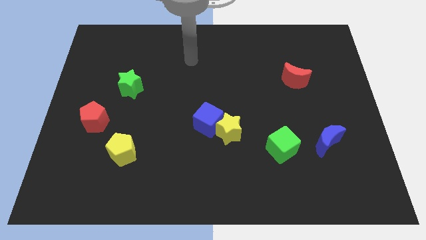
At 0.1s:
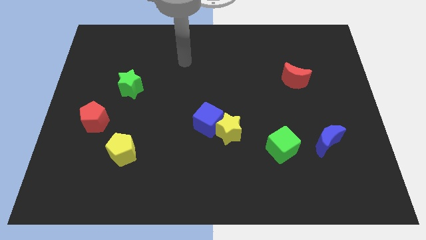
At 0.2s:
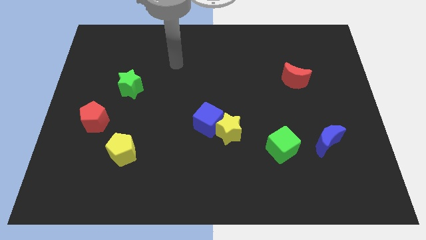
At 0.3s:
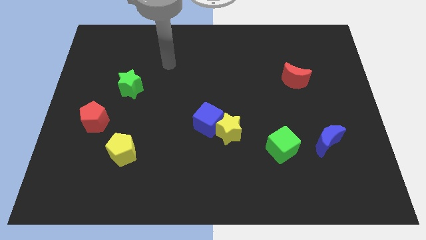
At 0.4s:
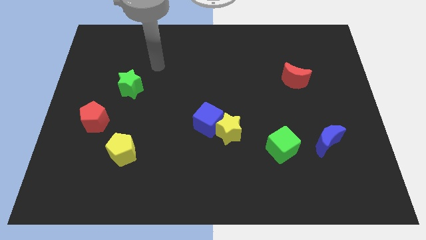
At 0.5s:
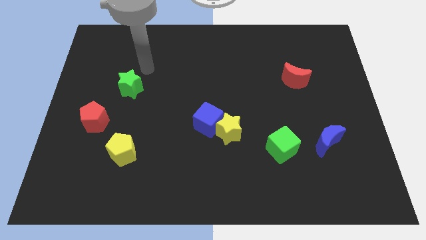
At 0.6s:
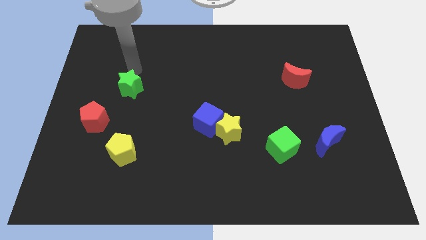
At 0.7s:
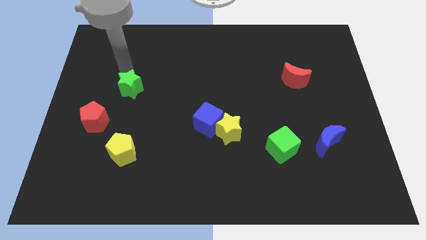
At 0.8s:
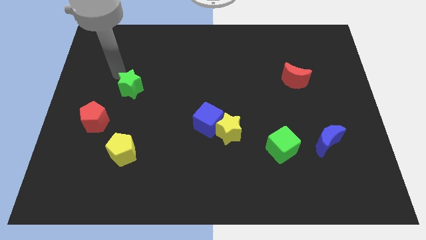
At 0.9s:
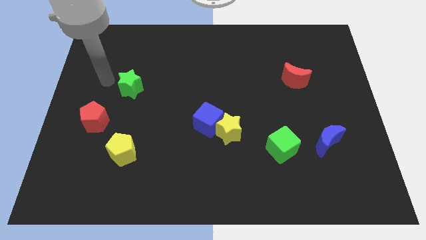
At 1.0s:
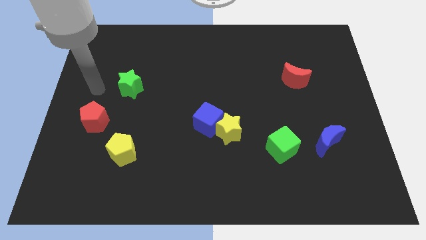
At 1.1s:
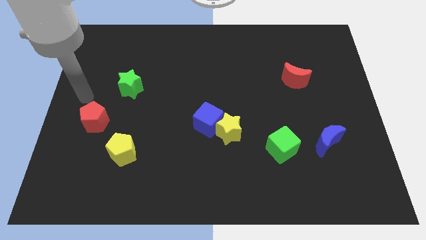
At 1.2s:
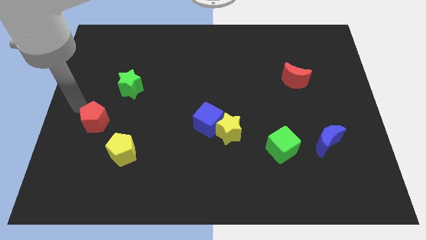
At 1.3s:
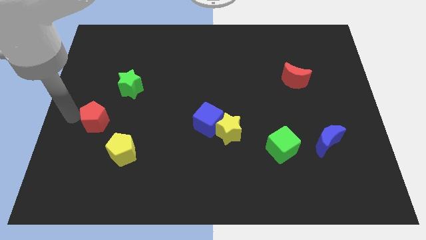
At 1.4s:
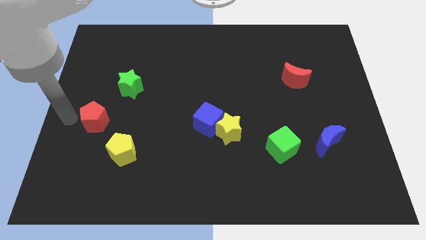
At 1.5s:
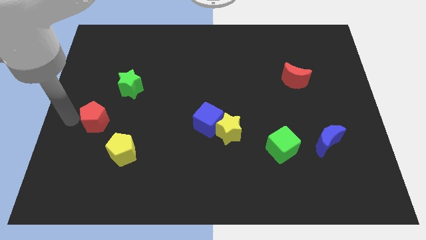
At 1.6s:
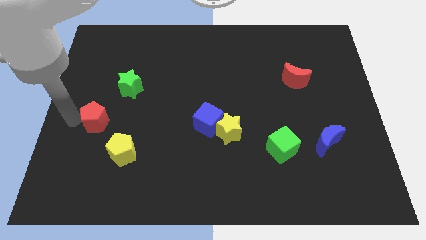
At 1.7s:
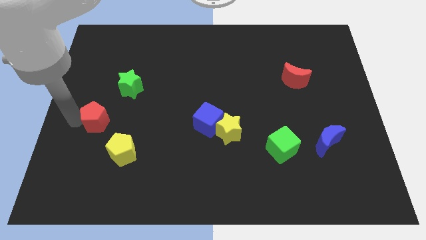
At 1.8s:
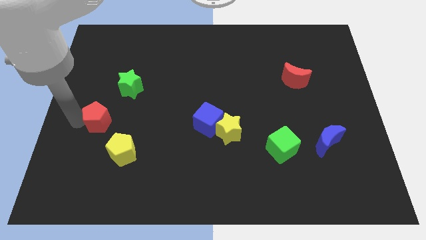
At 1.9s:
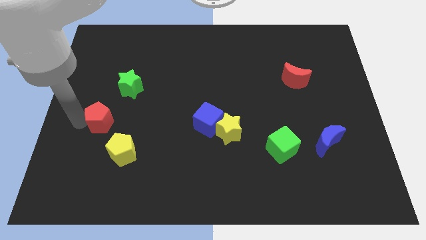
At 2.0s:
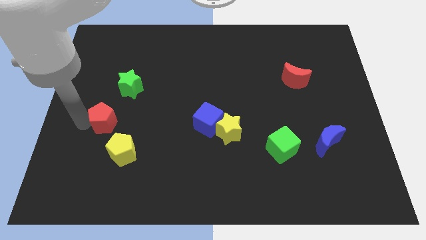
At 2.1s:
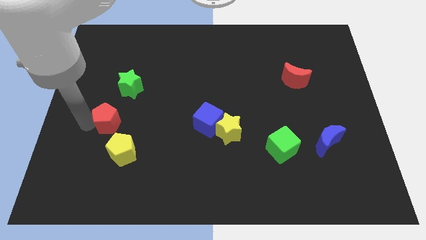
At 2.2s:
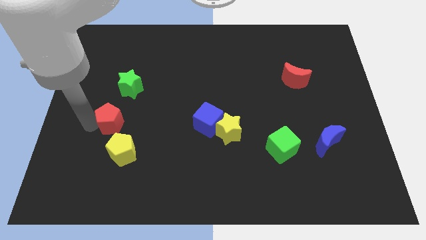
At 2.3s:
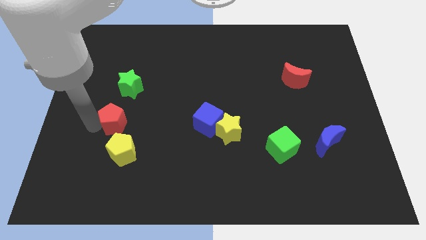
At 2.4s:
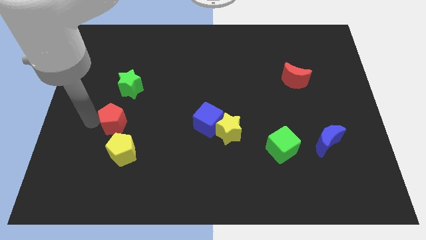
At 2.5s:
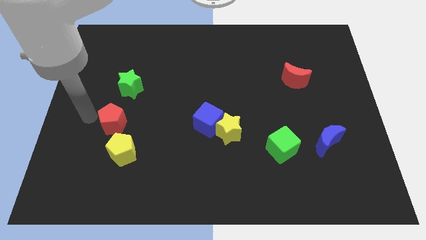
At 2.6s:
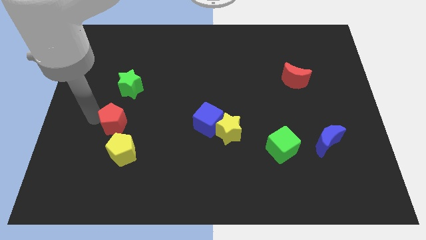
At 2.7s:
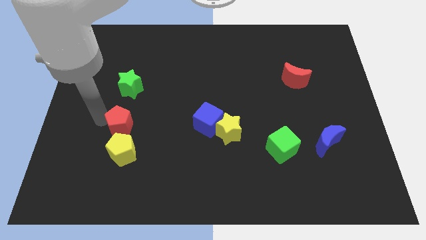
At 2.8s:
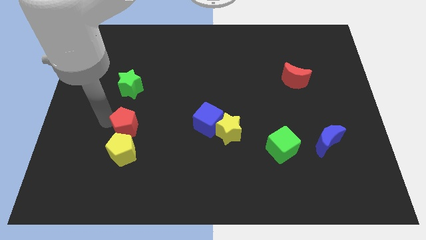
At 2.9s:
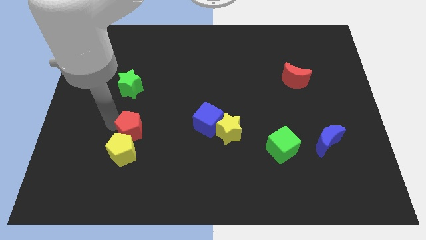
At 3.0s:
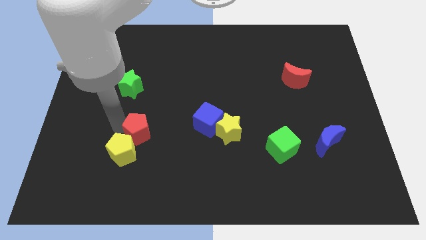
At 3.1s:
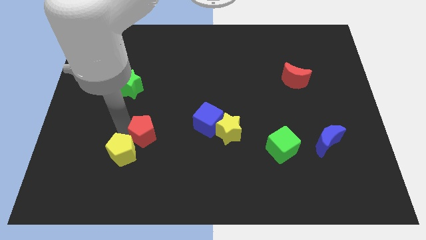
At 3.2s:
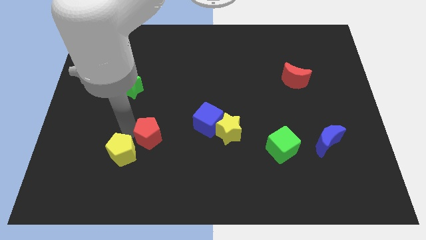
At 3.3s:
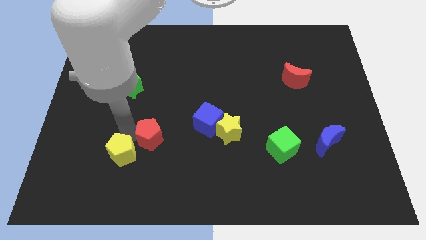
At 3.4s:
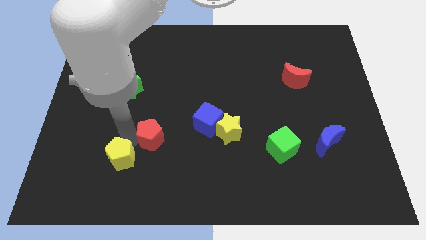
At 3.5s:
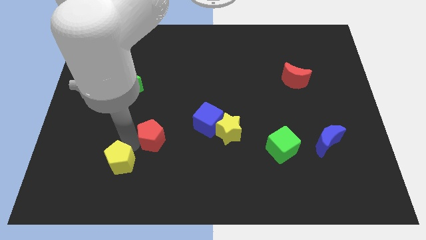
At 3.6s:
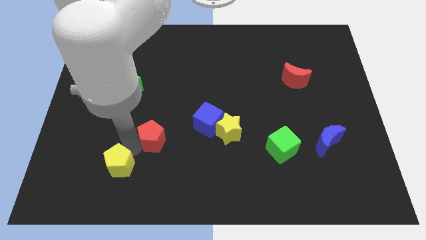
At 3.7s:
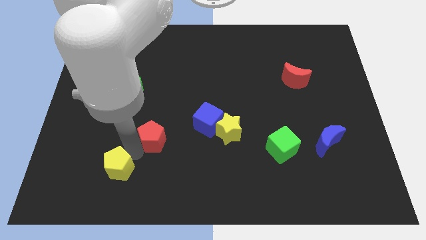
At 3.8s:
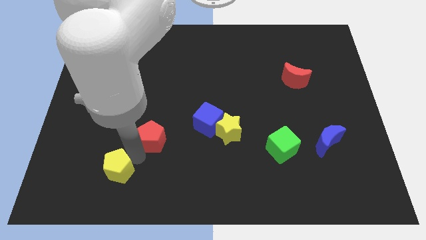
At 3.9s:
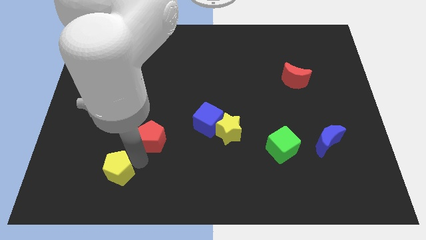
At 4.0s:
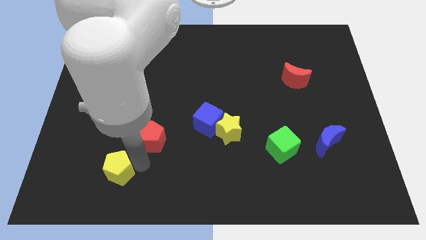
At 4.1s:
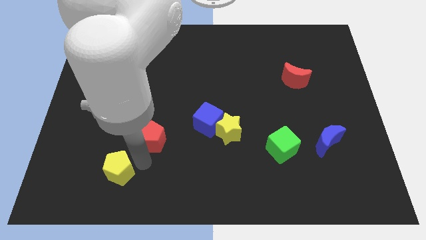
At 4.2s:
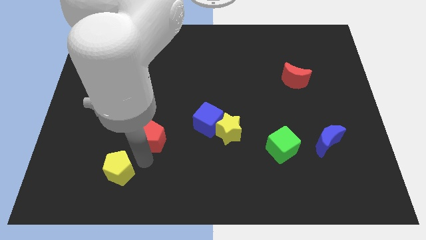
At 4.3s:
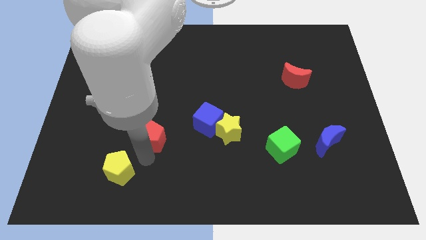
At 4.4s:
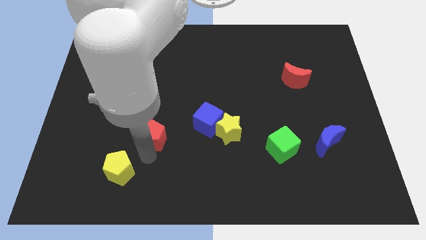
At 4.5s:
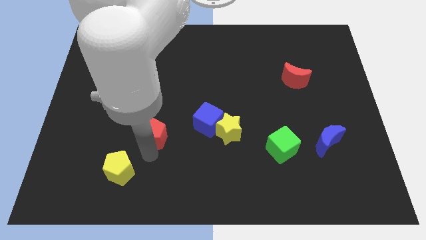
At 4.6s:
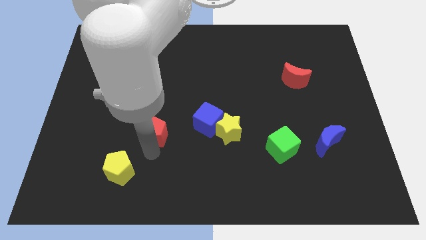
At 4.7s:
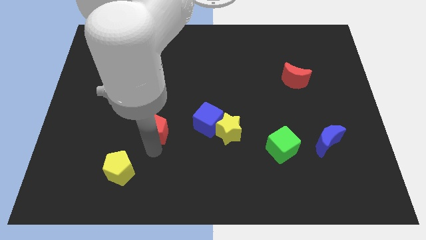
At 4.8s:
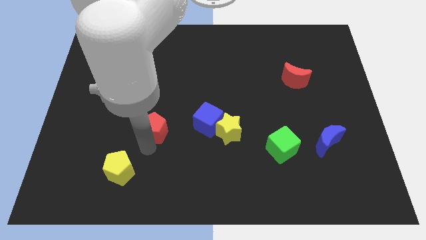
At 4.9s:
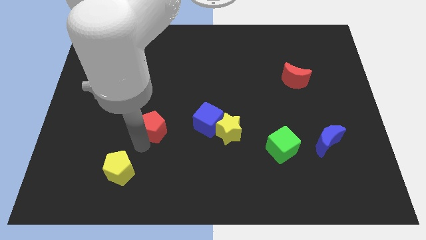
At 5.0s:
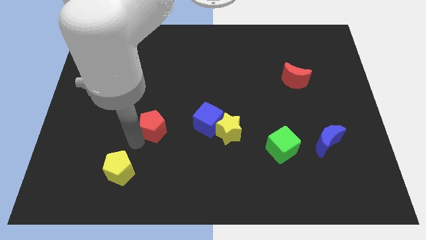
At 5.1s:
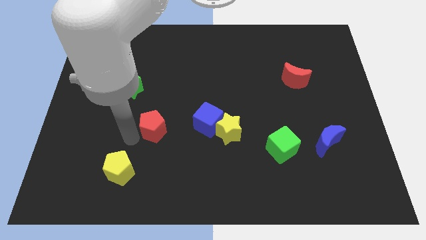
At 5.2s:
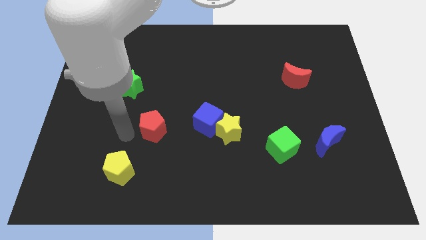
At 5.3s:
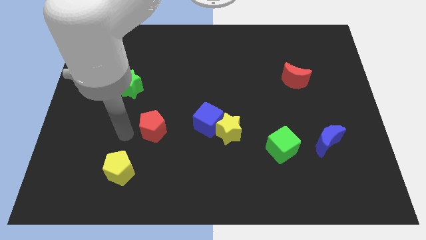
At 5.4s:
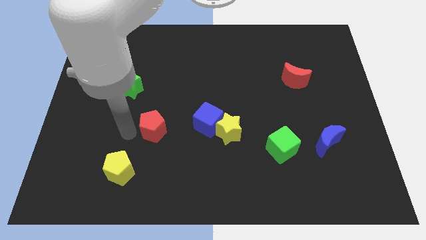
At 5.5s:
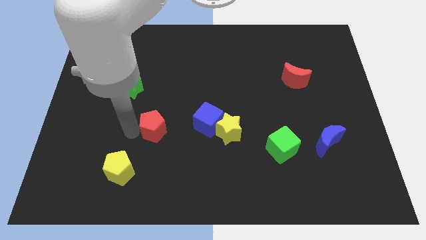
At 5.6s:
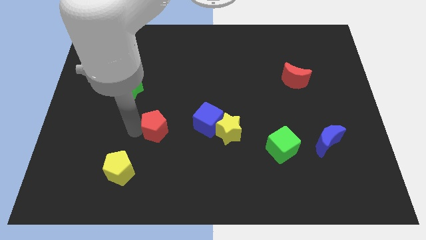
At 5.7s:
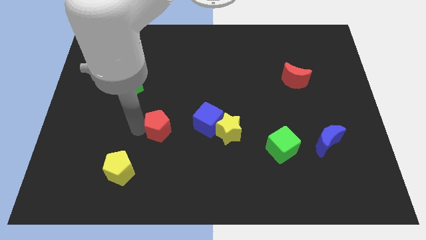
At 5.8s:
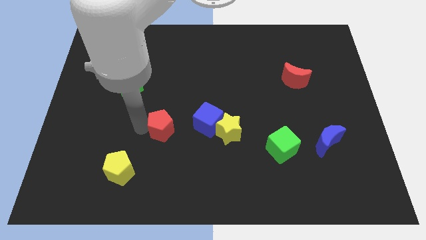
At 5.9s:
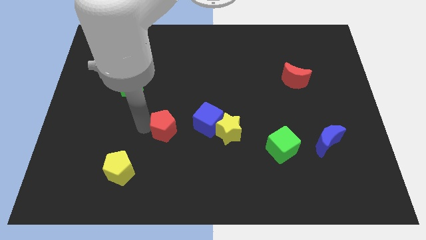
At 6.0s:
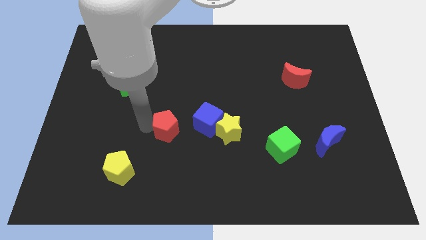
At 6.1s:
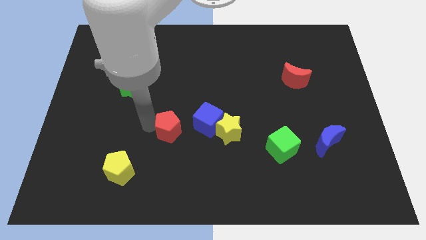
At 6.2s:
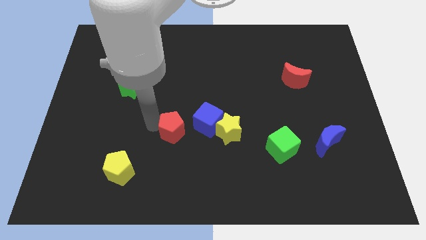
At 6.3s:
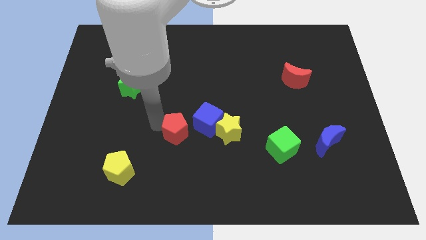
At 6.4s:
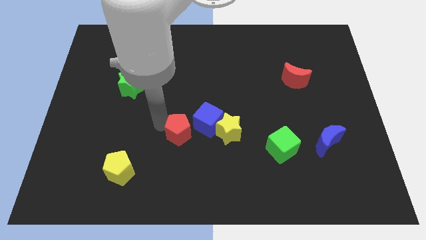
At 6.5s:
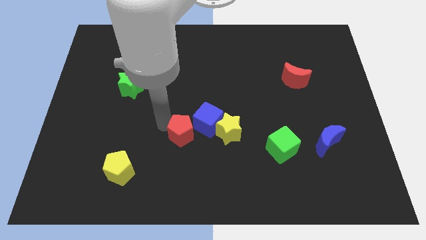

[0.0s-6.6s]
push the red pentagon towards the blue cube
